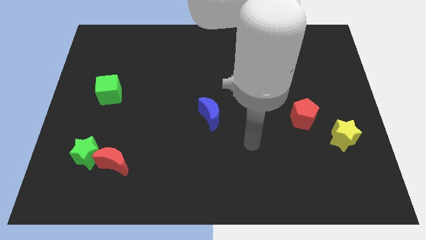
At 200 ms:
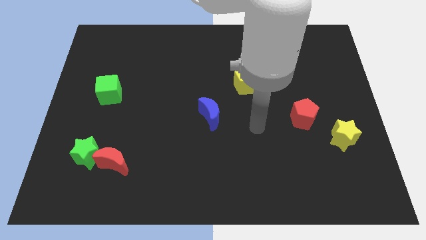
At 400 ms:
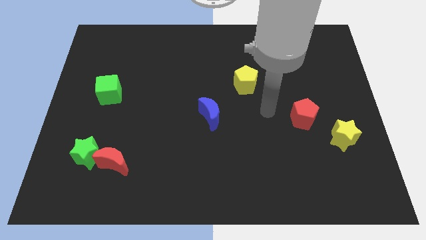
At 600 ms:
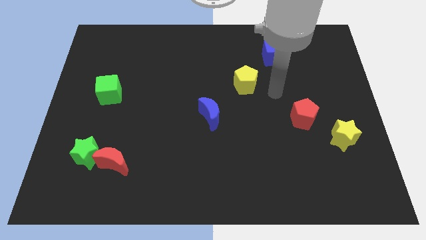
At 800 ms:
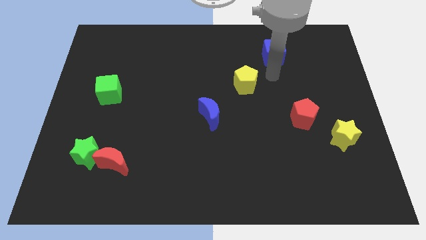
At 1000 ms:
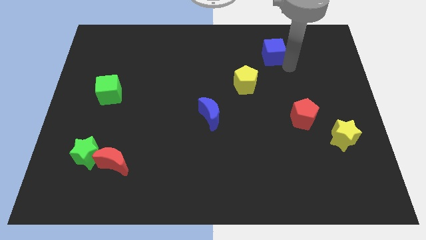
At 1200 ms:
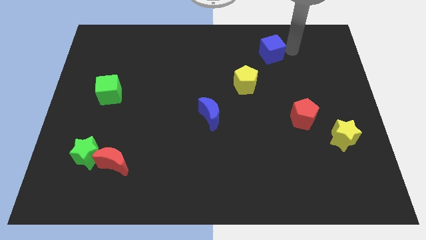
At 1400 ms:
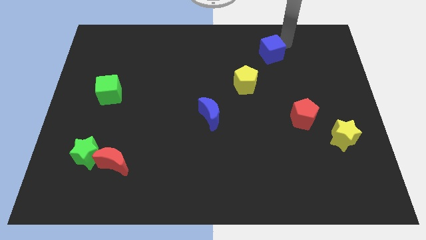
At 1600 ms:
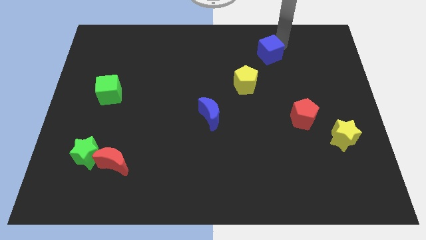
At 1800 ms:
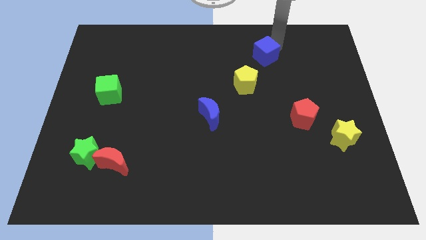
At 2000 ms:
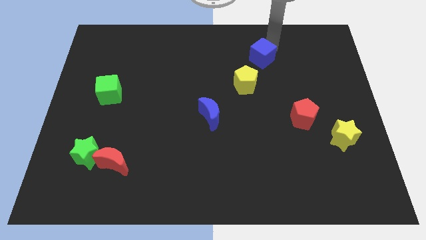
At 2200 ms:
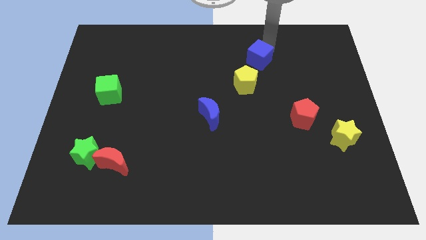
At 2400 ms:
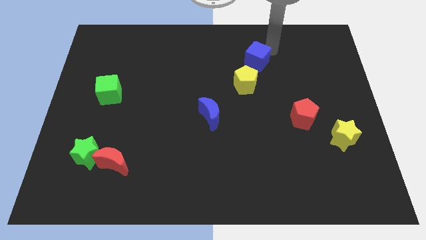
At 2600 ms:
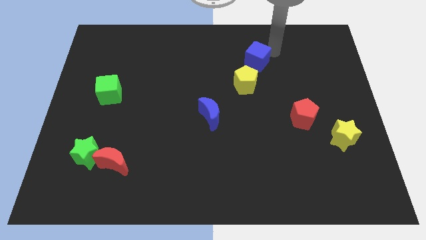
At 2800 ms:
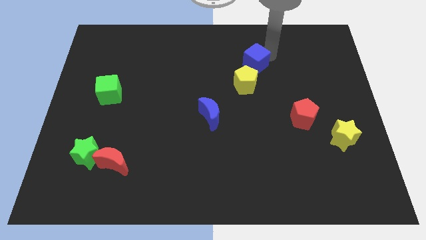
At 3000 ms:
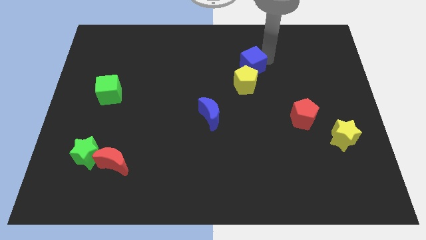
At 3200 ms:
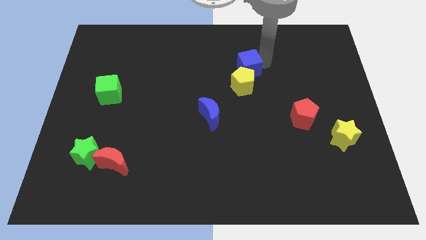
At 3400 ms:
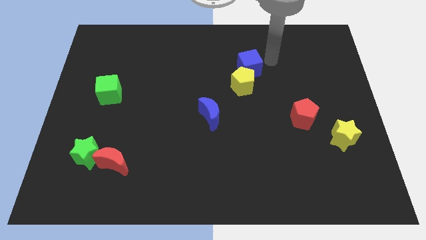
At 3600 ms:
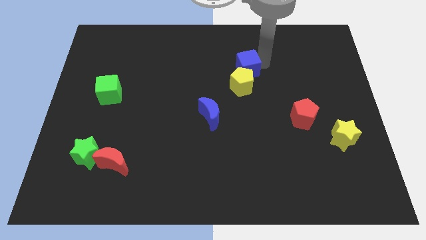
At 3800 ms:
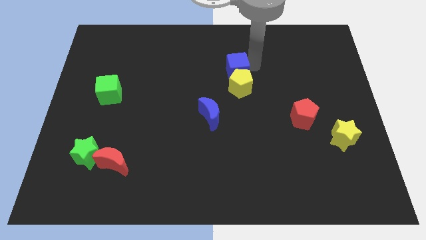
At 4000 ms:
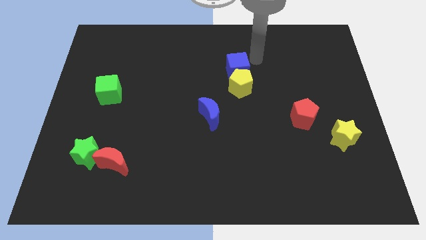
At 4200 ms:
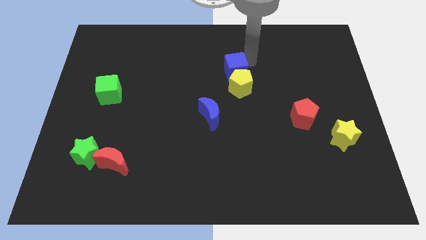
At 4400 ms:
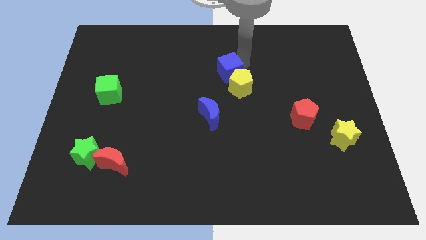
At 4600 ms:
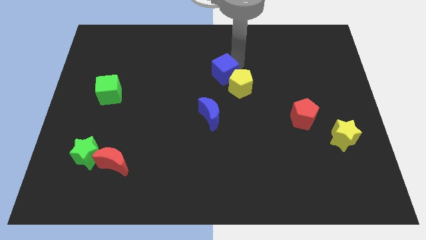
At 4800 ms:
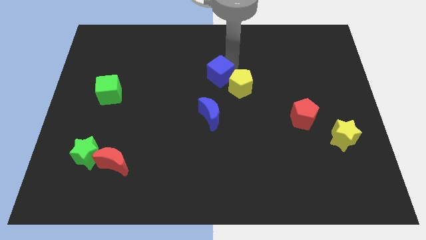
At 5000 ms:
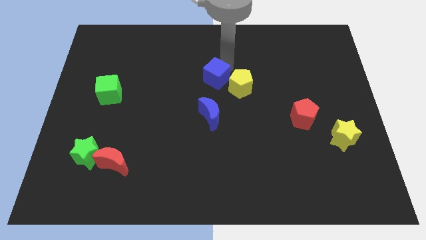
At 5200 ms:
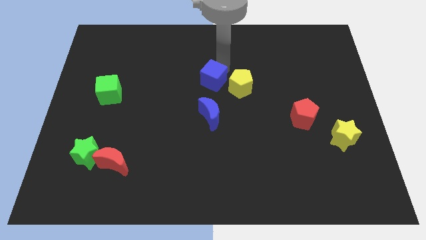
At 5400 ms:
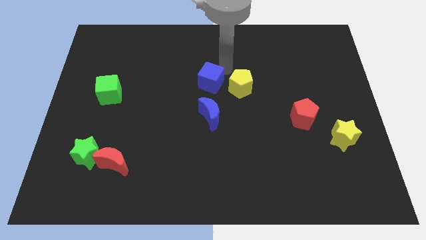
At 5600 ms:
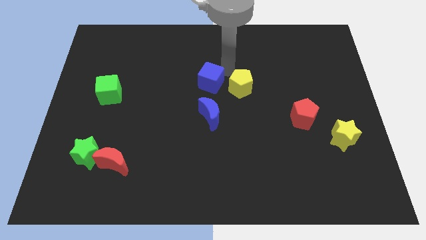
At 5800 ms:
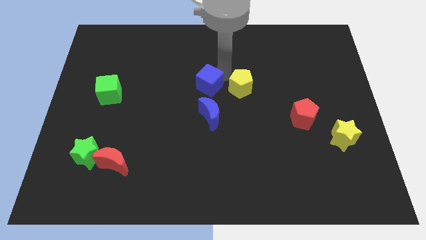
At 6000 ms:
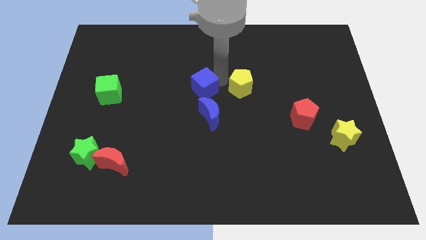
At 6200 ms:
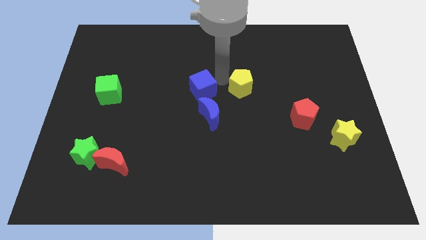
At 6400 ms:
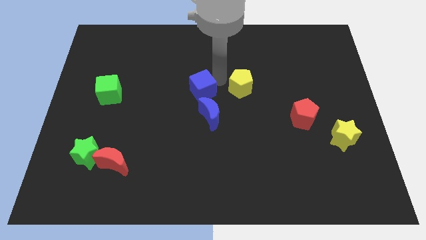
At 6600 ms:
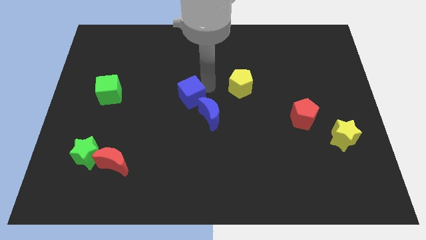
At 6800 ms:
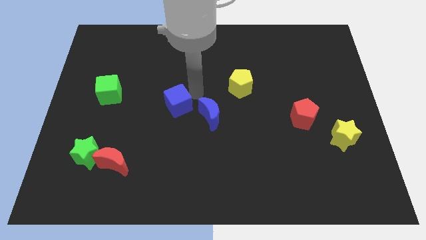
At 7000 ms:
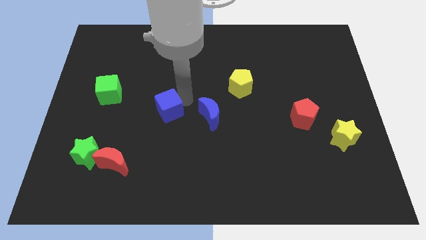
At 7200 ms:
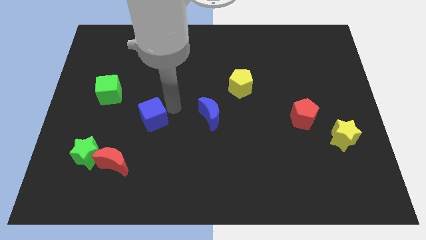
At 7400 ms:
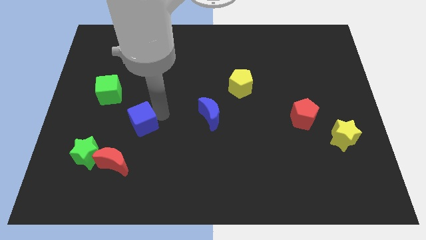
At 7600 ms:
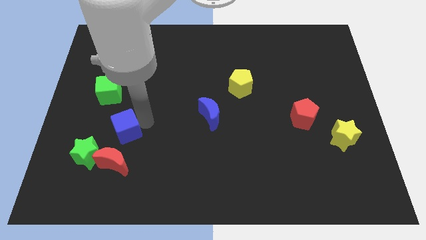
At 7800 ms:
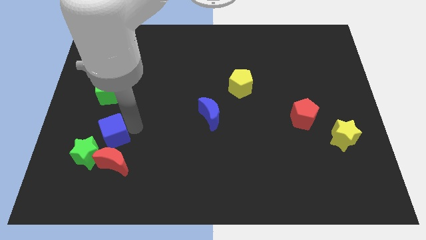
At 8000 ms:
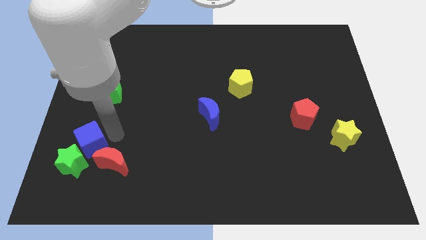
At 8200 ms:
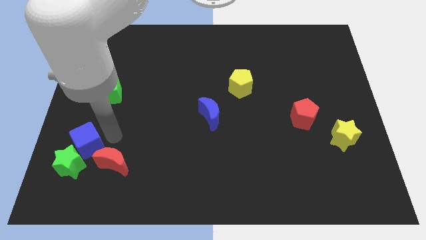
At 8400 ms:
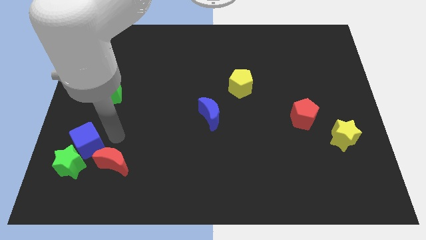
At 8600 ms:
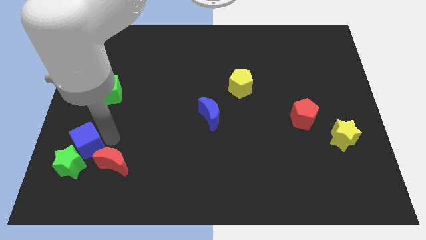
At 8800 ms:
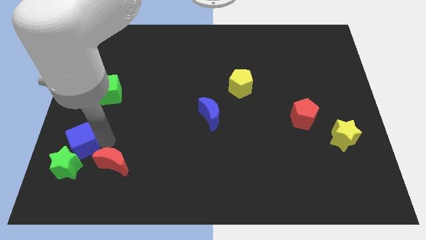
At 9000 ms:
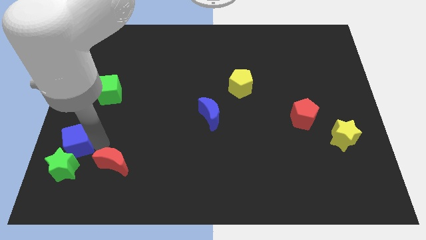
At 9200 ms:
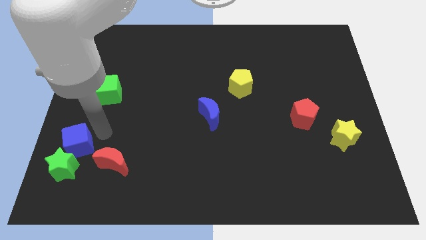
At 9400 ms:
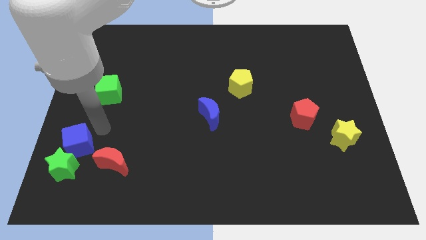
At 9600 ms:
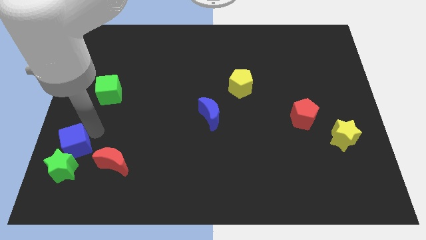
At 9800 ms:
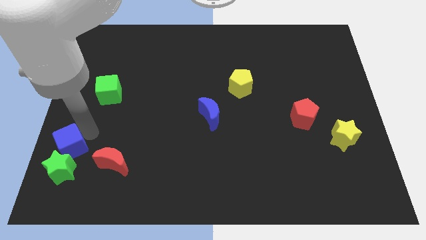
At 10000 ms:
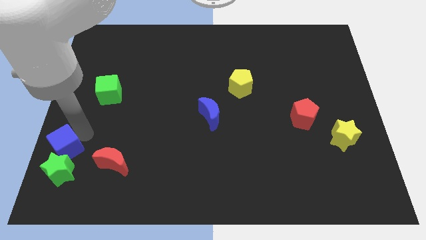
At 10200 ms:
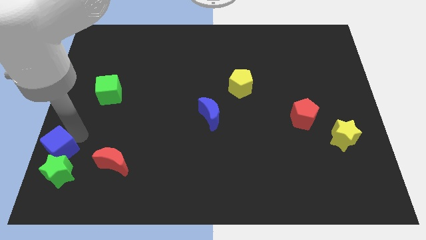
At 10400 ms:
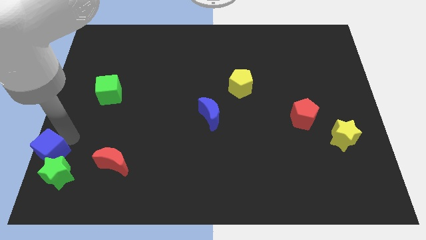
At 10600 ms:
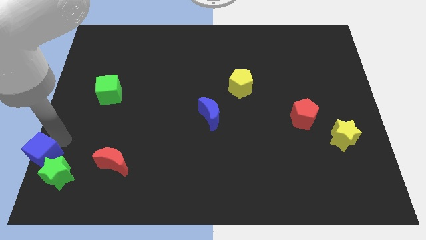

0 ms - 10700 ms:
put the blue cube to the bottom left corner

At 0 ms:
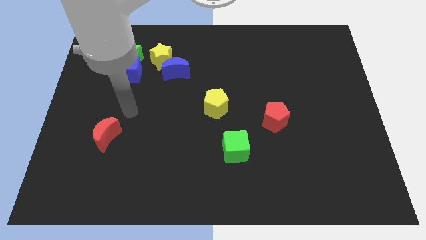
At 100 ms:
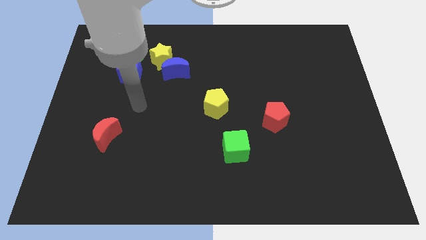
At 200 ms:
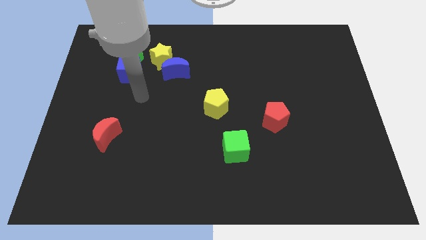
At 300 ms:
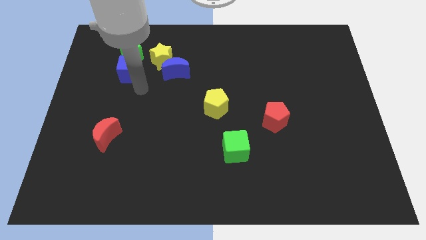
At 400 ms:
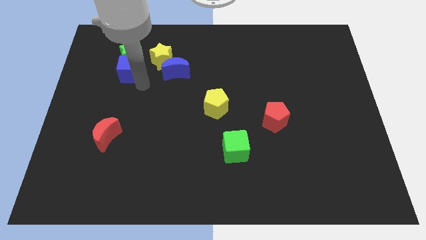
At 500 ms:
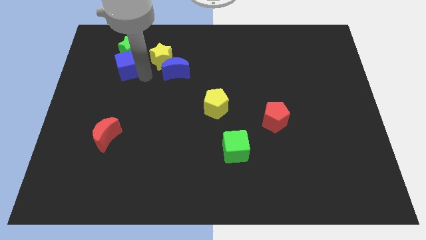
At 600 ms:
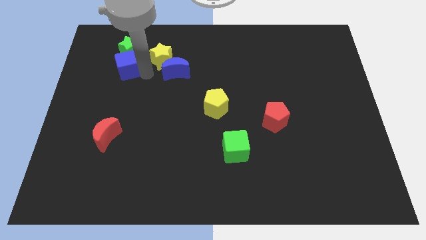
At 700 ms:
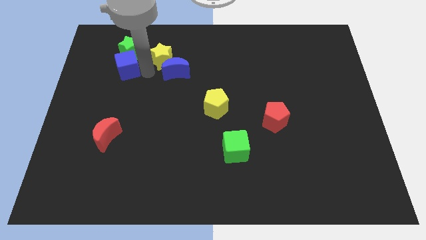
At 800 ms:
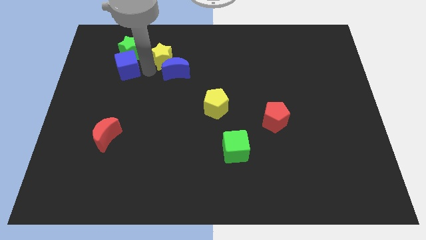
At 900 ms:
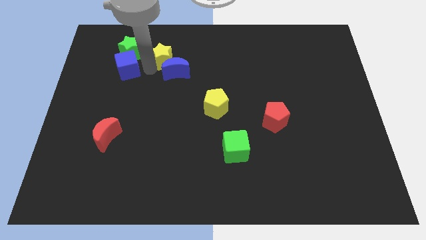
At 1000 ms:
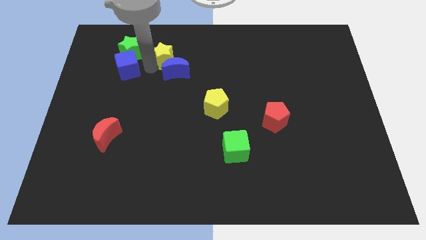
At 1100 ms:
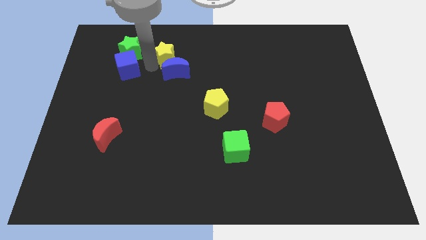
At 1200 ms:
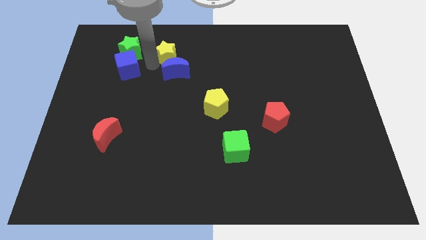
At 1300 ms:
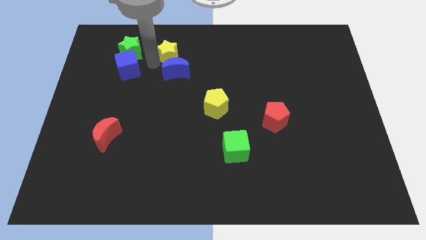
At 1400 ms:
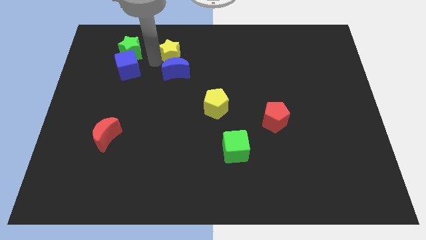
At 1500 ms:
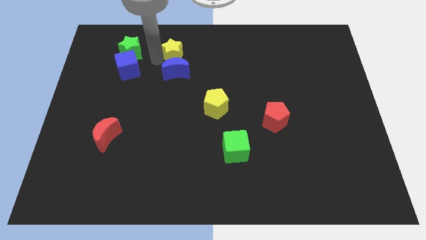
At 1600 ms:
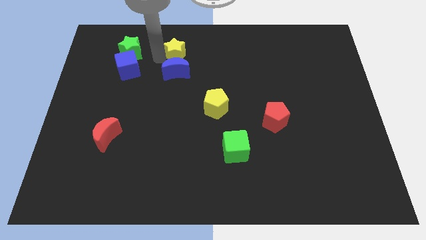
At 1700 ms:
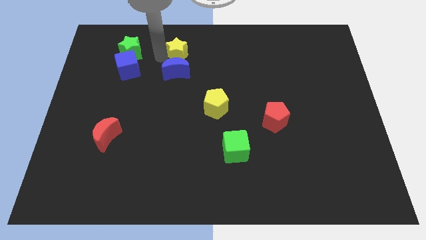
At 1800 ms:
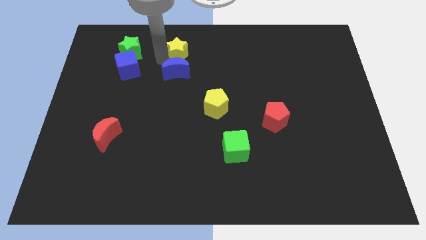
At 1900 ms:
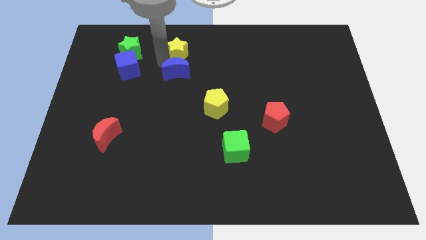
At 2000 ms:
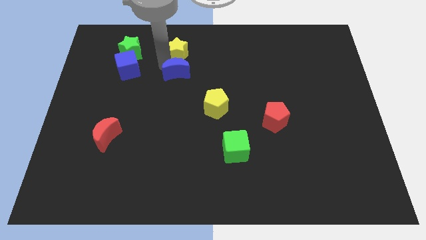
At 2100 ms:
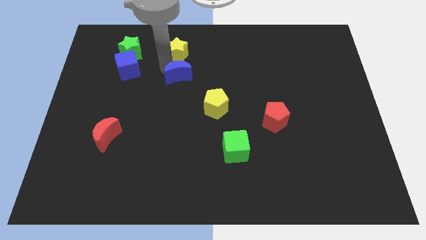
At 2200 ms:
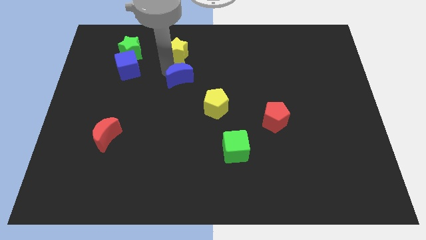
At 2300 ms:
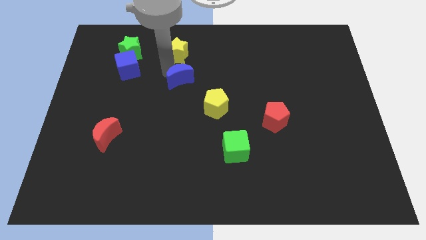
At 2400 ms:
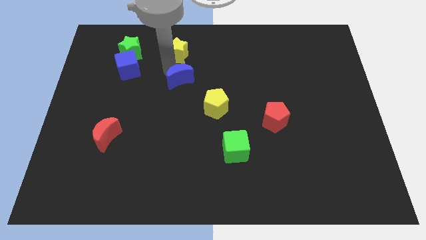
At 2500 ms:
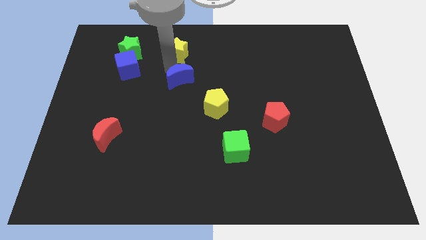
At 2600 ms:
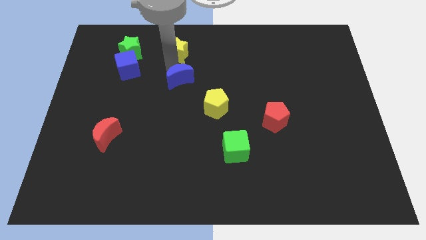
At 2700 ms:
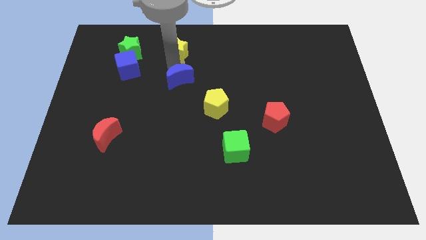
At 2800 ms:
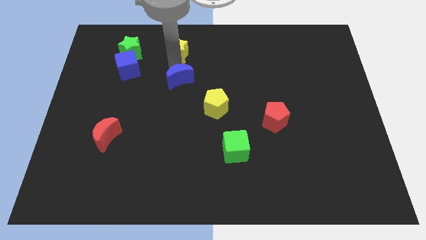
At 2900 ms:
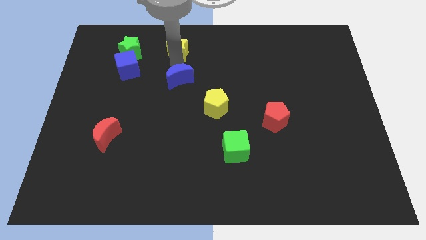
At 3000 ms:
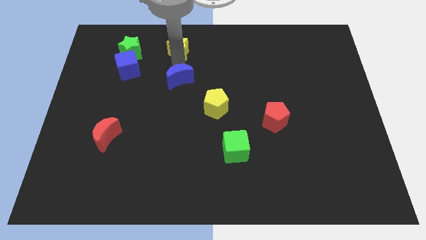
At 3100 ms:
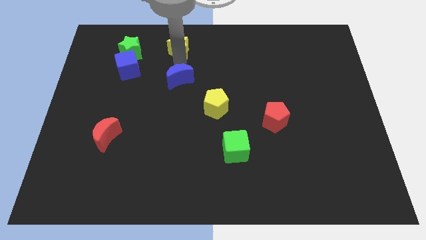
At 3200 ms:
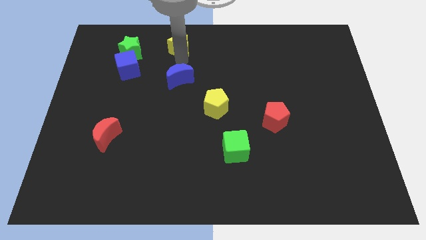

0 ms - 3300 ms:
move the yellow star to the top
